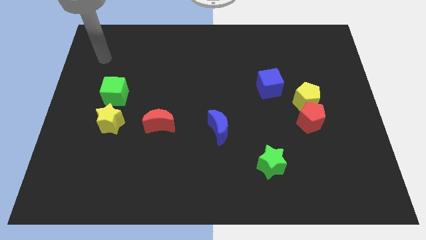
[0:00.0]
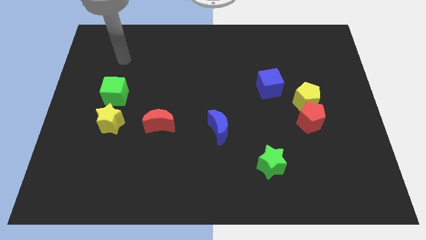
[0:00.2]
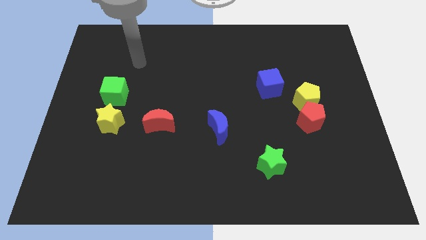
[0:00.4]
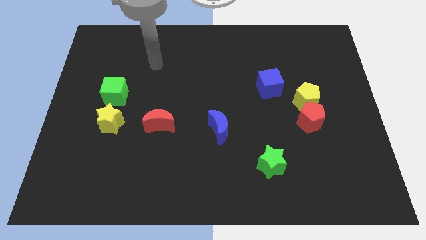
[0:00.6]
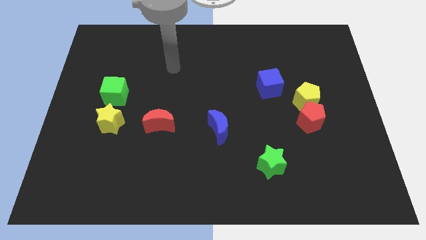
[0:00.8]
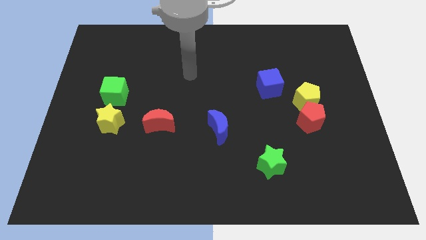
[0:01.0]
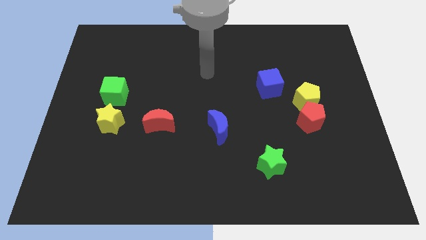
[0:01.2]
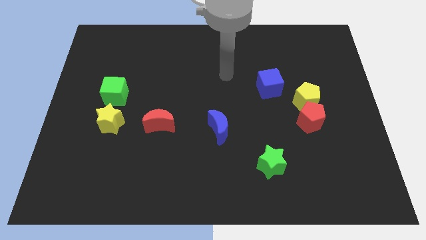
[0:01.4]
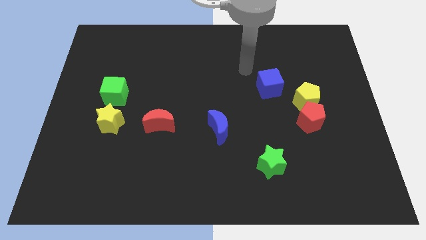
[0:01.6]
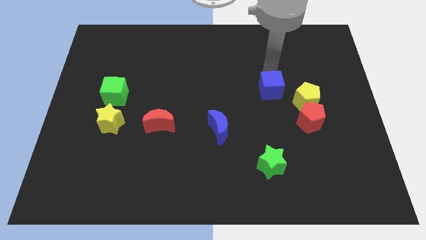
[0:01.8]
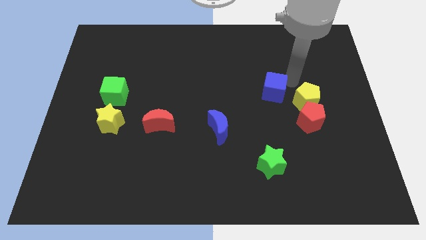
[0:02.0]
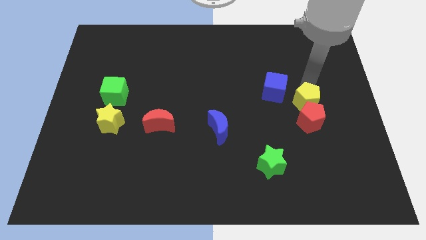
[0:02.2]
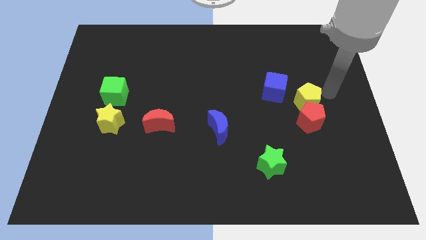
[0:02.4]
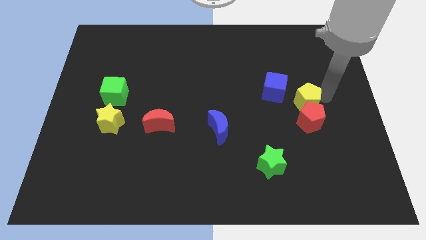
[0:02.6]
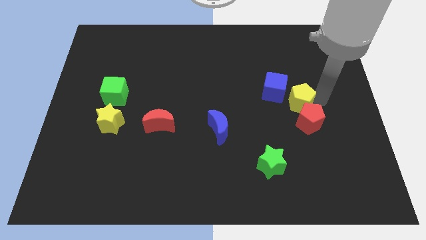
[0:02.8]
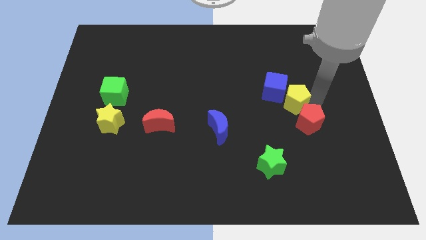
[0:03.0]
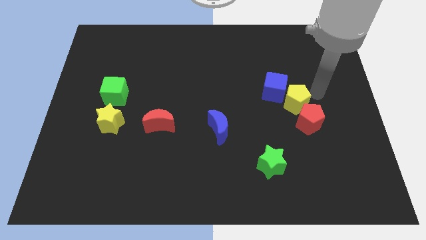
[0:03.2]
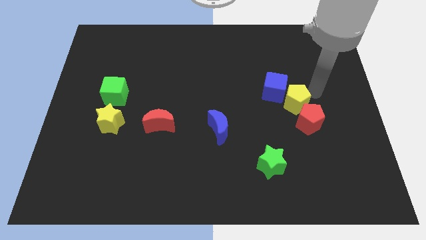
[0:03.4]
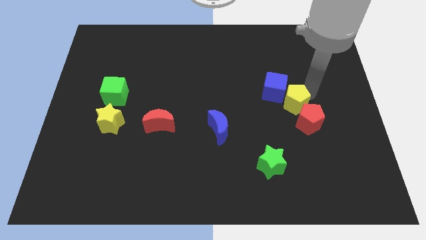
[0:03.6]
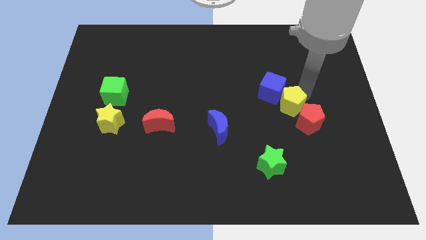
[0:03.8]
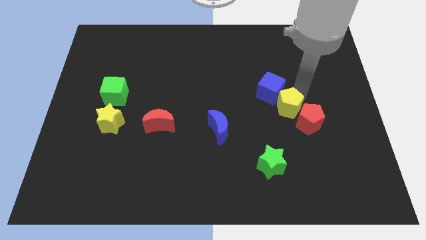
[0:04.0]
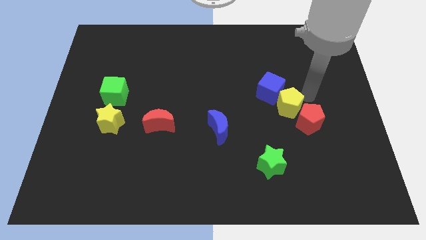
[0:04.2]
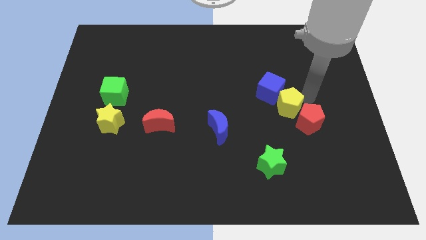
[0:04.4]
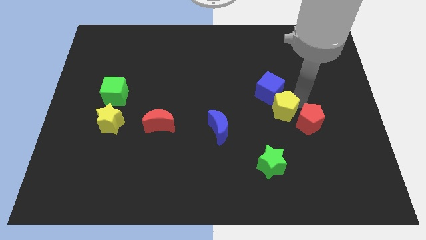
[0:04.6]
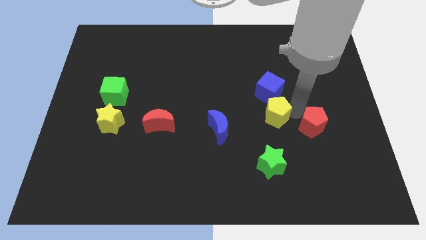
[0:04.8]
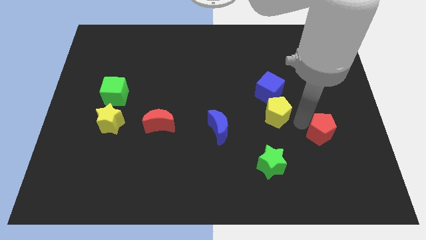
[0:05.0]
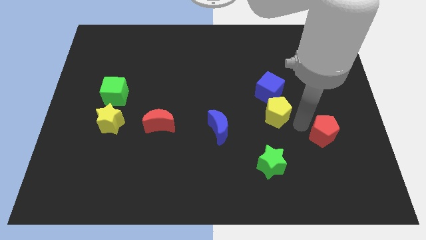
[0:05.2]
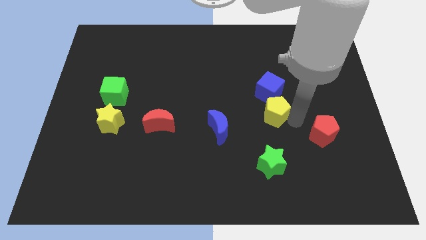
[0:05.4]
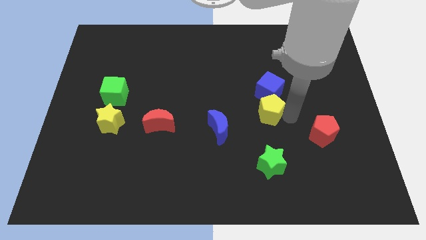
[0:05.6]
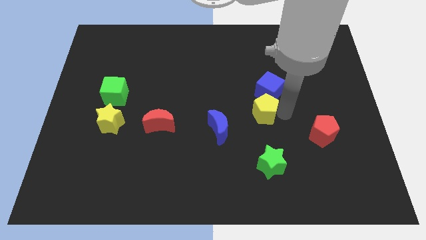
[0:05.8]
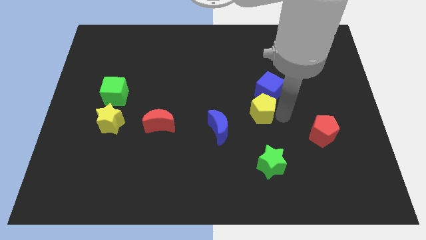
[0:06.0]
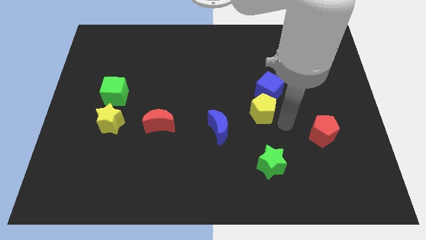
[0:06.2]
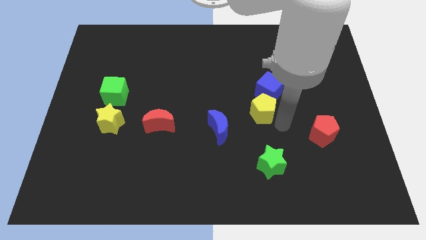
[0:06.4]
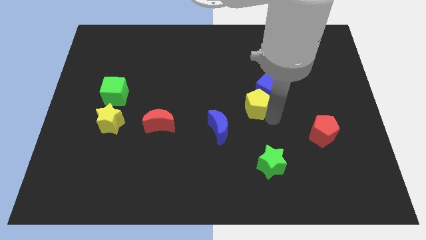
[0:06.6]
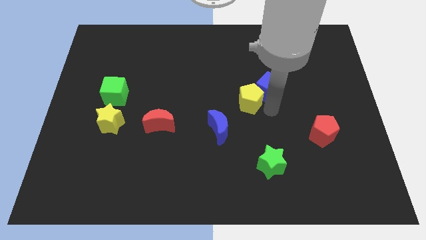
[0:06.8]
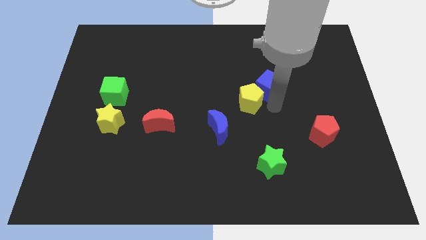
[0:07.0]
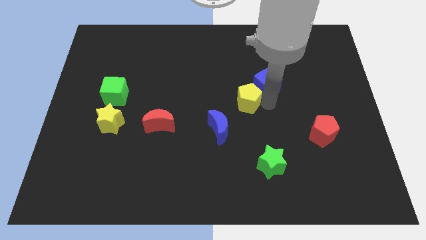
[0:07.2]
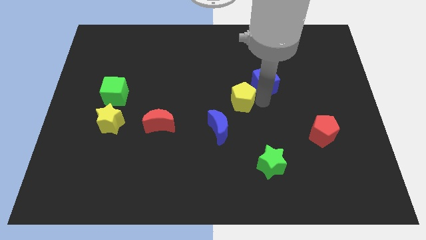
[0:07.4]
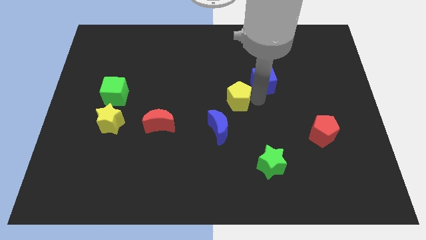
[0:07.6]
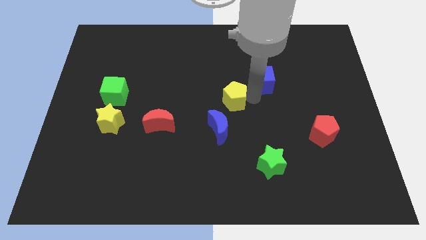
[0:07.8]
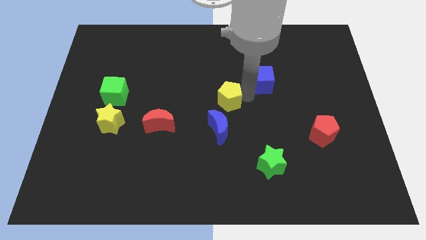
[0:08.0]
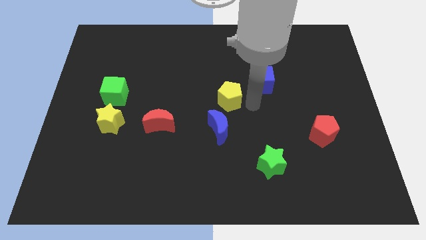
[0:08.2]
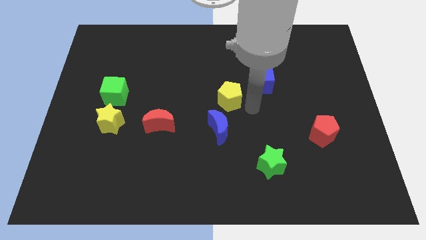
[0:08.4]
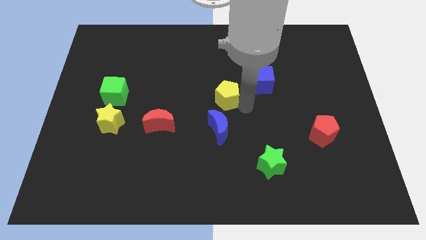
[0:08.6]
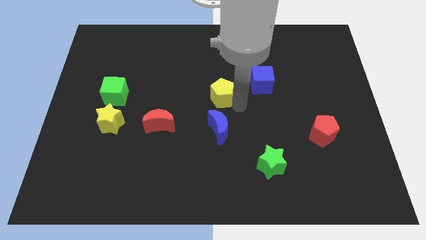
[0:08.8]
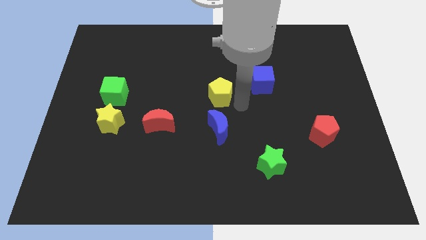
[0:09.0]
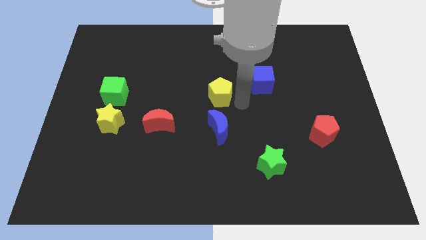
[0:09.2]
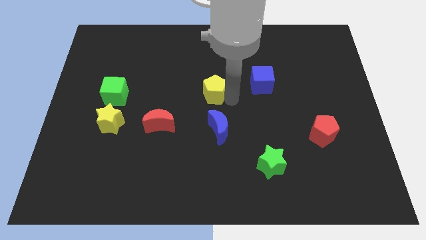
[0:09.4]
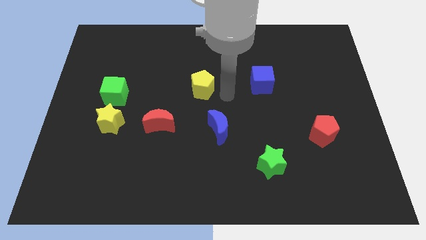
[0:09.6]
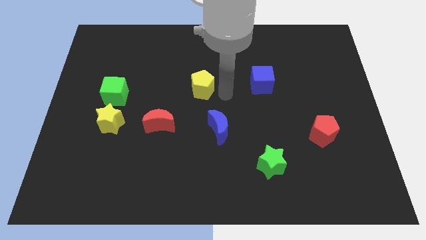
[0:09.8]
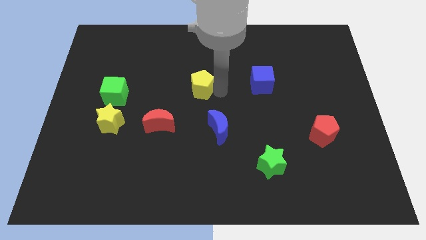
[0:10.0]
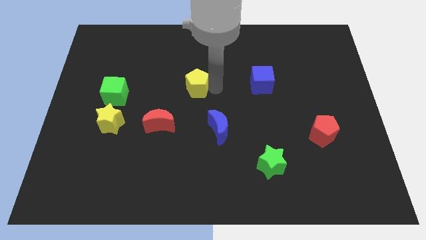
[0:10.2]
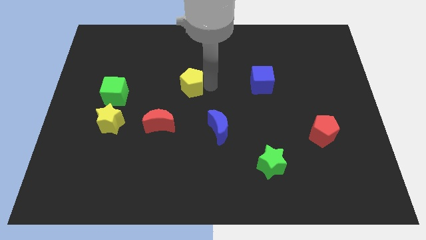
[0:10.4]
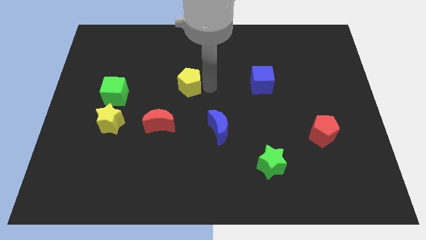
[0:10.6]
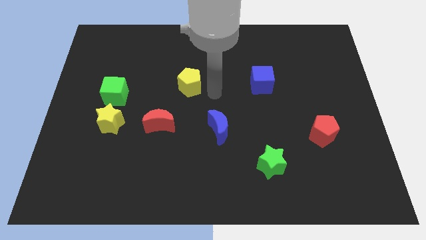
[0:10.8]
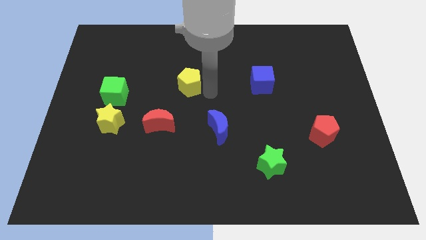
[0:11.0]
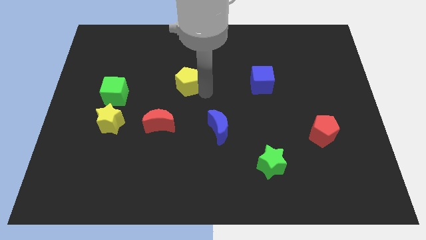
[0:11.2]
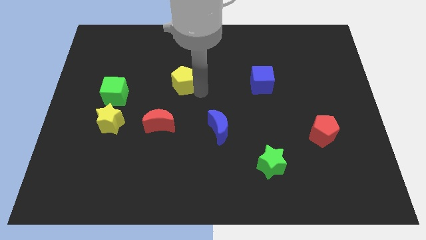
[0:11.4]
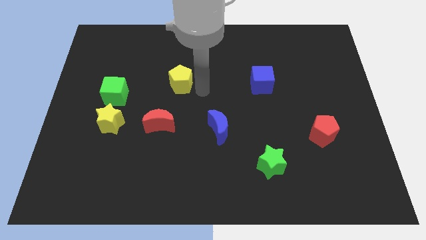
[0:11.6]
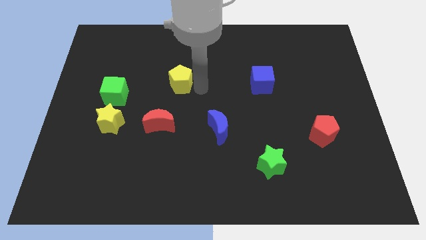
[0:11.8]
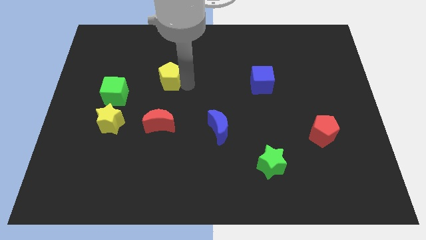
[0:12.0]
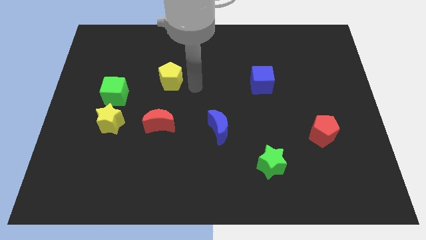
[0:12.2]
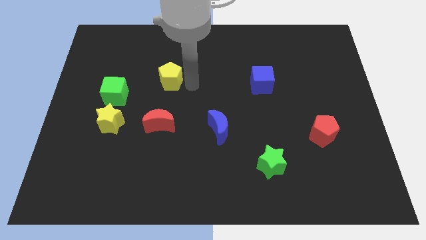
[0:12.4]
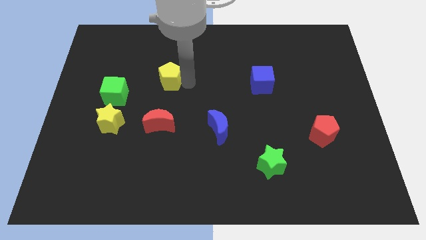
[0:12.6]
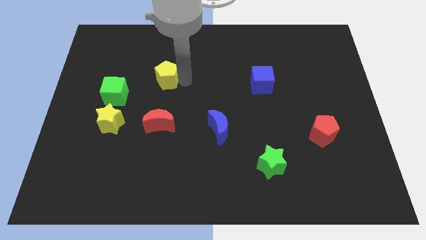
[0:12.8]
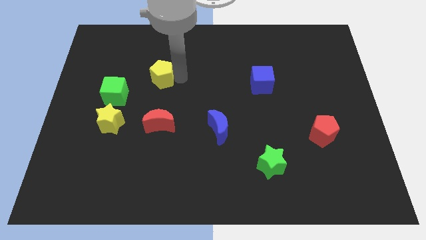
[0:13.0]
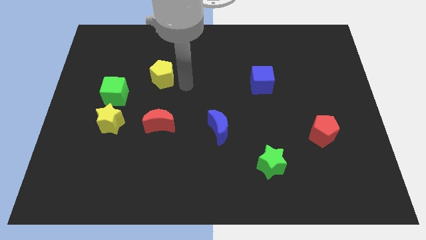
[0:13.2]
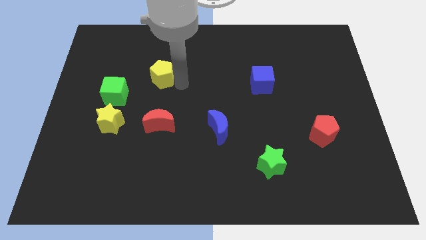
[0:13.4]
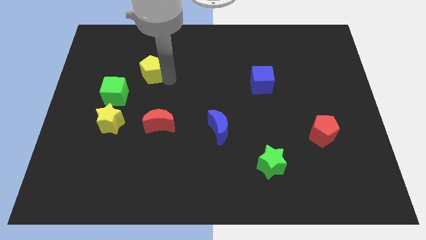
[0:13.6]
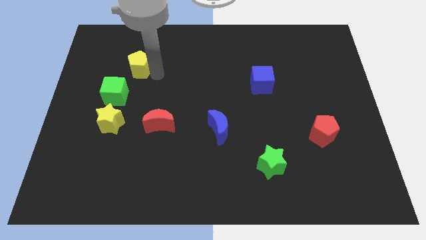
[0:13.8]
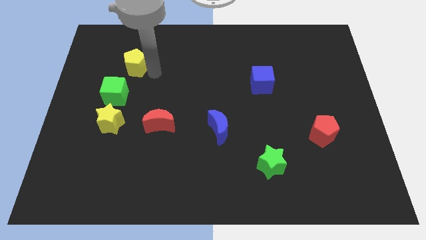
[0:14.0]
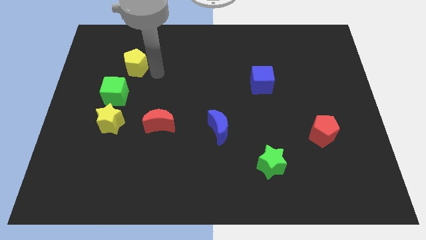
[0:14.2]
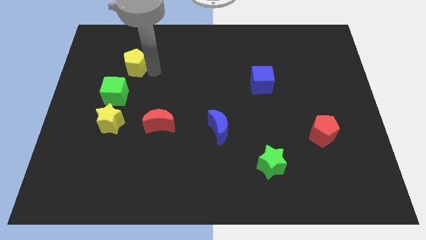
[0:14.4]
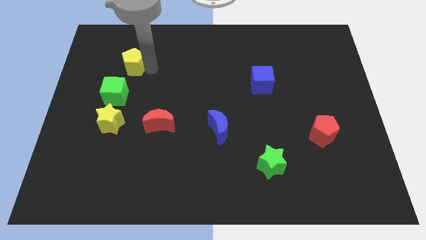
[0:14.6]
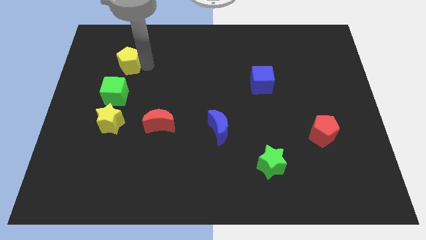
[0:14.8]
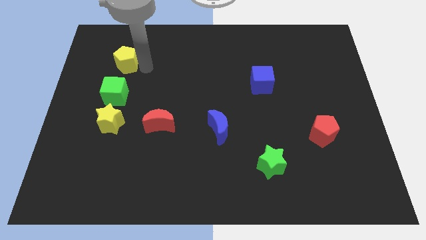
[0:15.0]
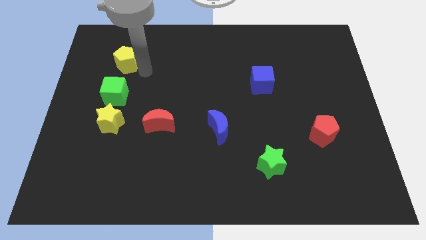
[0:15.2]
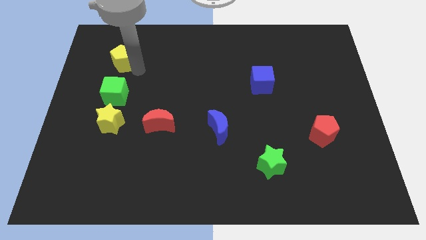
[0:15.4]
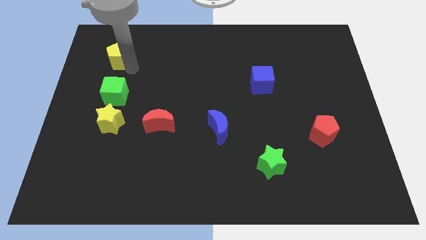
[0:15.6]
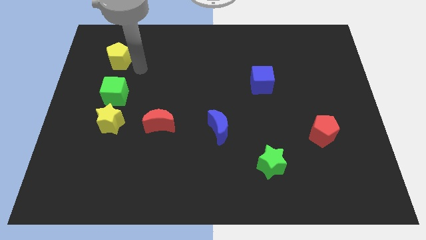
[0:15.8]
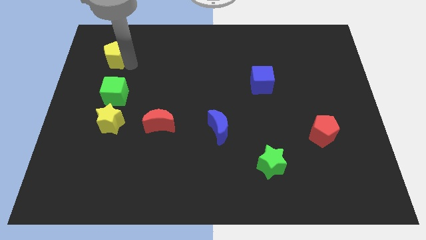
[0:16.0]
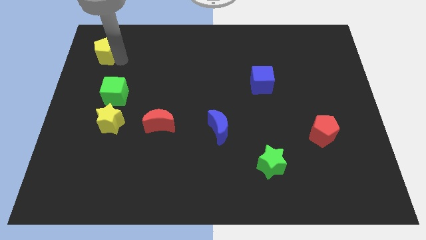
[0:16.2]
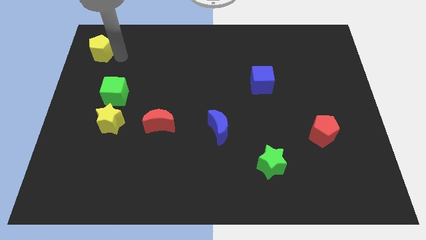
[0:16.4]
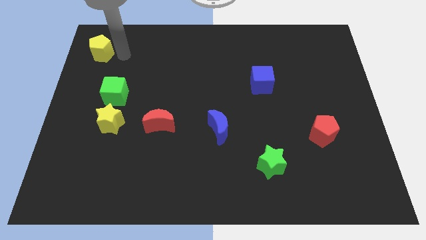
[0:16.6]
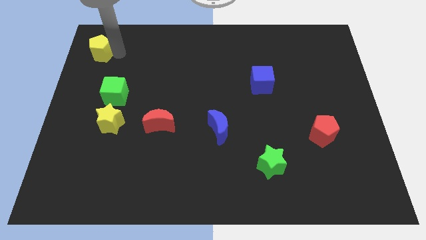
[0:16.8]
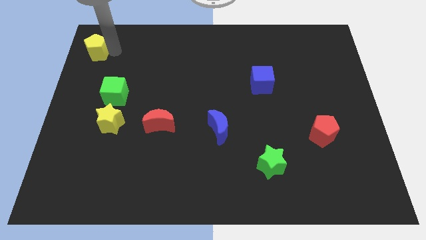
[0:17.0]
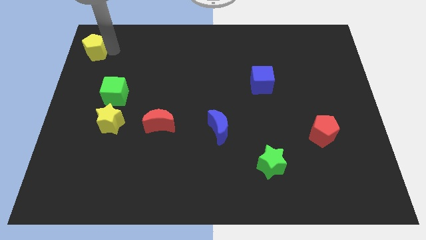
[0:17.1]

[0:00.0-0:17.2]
move the yellow pentagon to the top left corner
